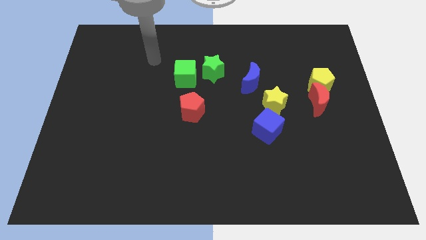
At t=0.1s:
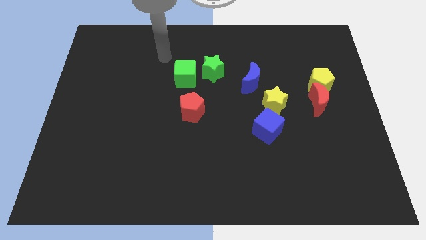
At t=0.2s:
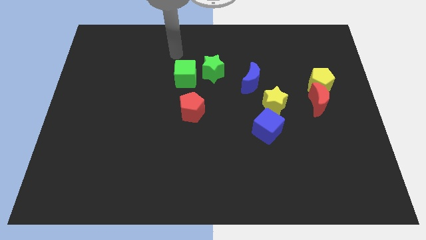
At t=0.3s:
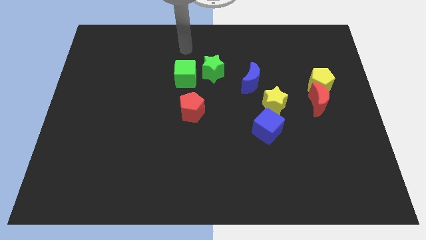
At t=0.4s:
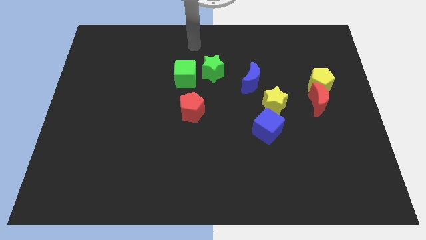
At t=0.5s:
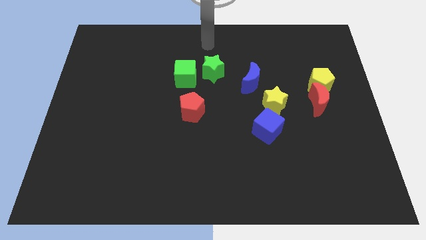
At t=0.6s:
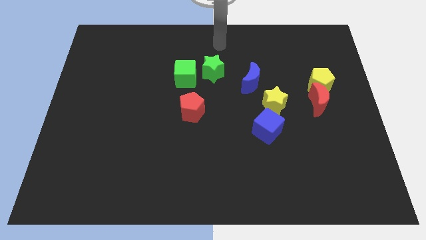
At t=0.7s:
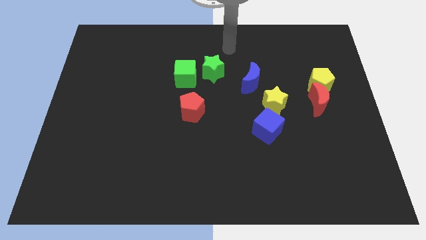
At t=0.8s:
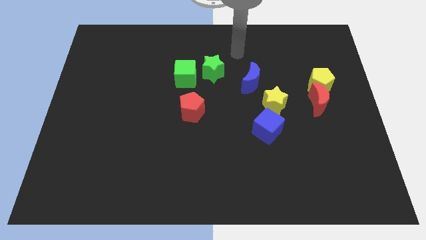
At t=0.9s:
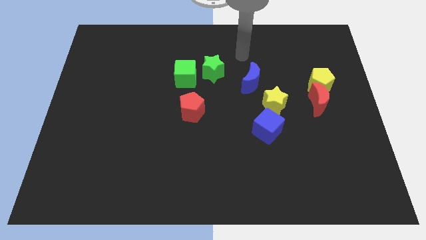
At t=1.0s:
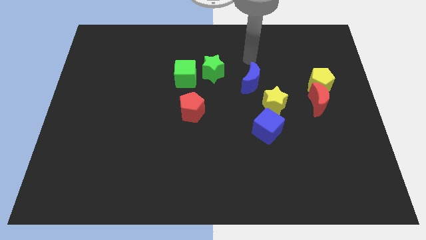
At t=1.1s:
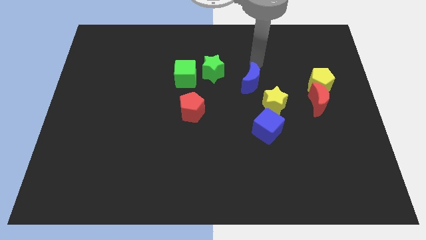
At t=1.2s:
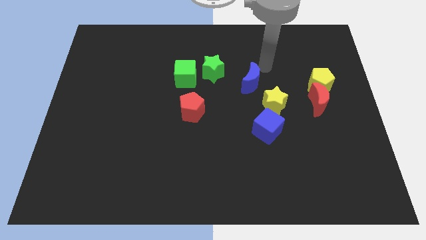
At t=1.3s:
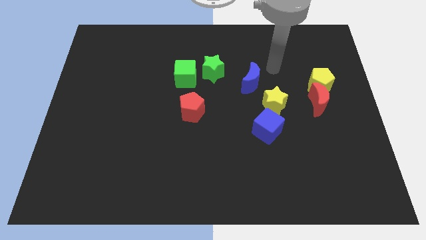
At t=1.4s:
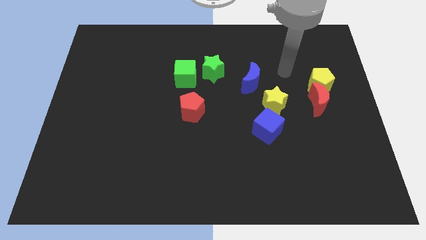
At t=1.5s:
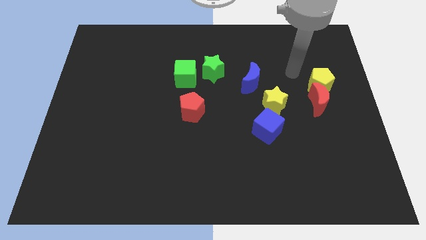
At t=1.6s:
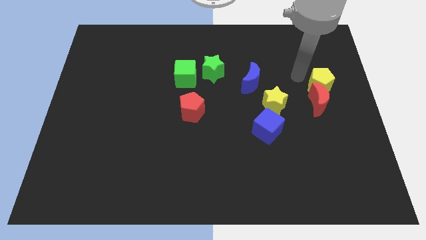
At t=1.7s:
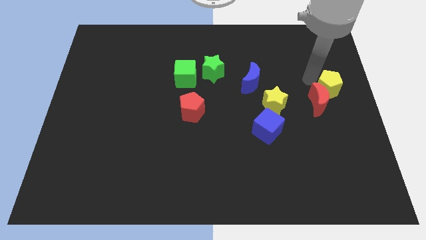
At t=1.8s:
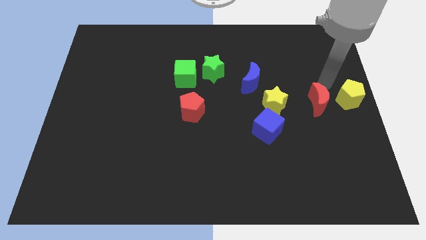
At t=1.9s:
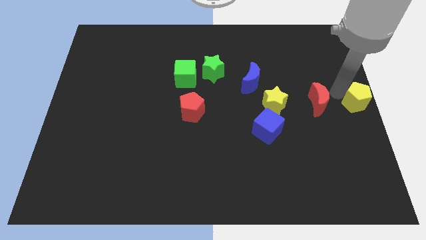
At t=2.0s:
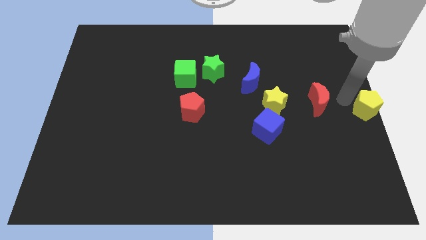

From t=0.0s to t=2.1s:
pull the red moon apart from the yellow pentagon

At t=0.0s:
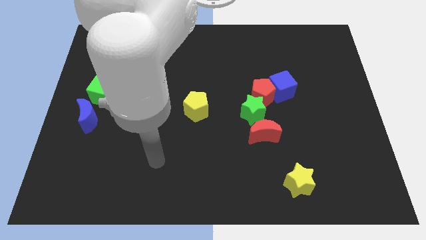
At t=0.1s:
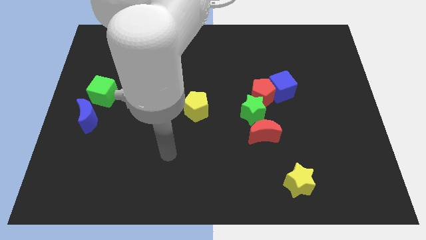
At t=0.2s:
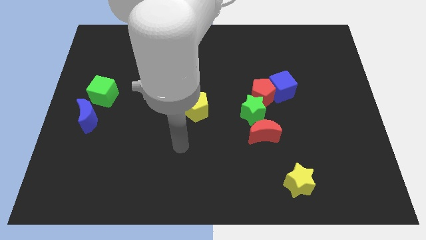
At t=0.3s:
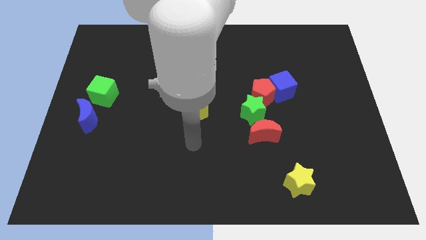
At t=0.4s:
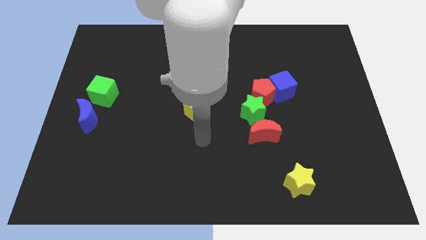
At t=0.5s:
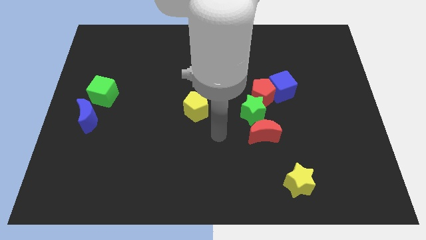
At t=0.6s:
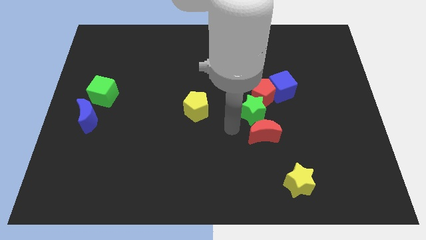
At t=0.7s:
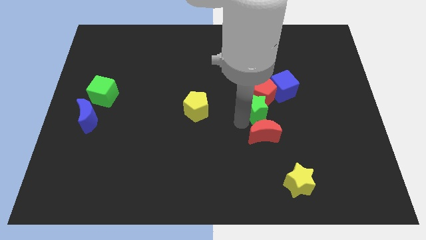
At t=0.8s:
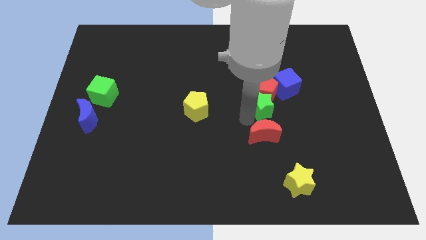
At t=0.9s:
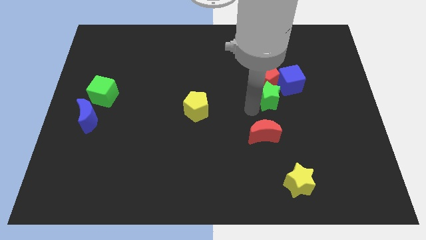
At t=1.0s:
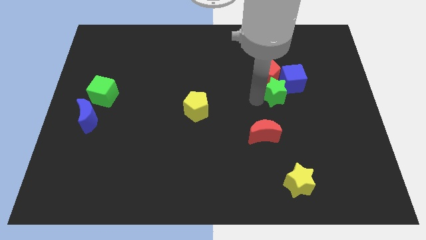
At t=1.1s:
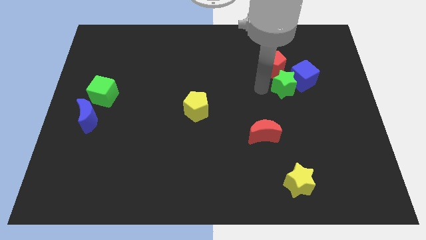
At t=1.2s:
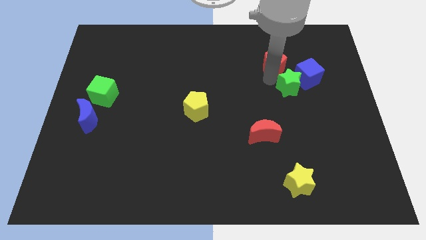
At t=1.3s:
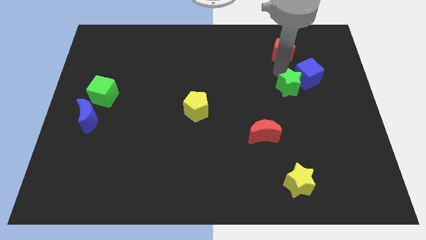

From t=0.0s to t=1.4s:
move the blue cube away from the red pentagon

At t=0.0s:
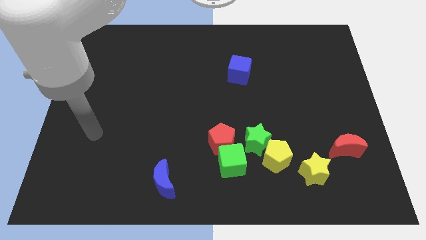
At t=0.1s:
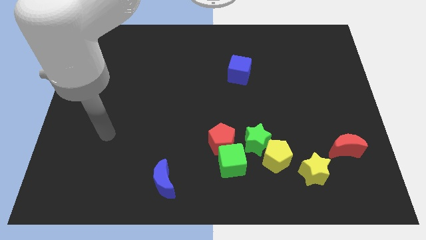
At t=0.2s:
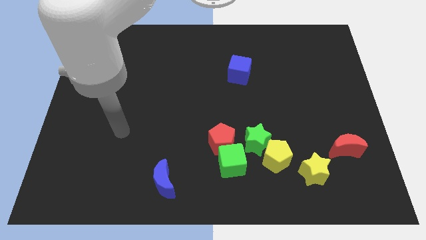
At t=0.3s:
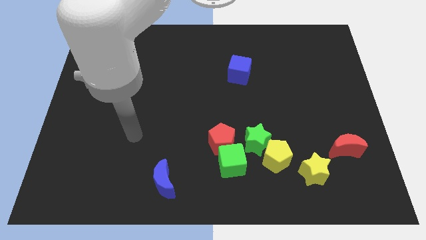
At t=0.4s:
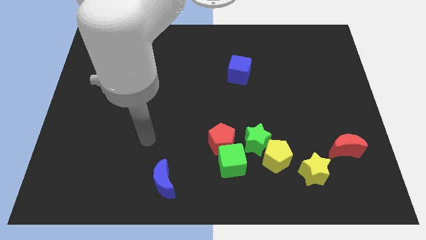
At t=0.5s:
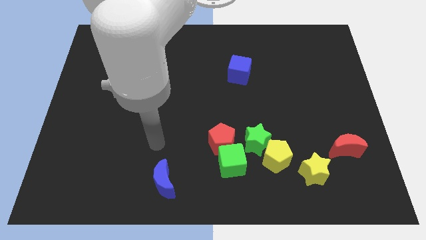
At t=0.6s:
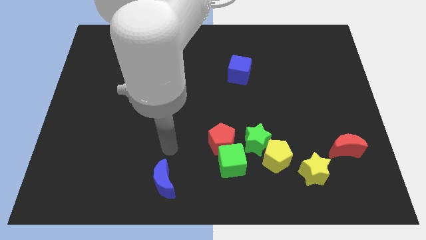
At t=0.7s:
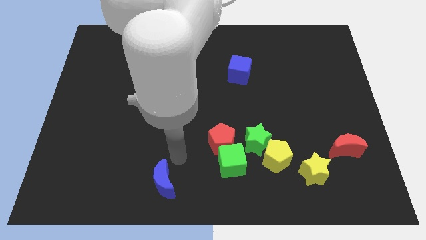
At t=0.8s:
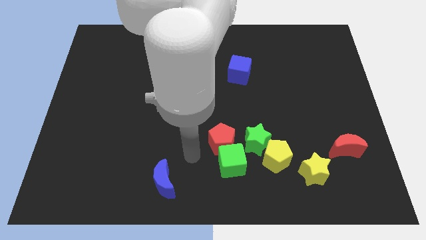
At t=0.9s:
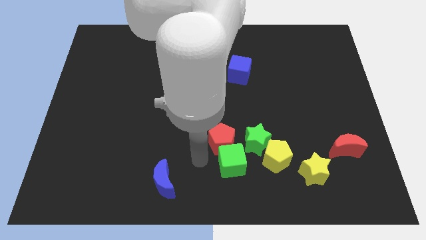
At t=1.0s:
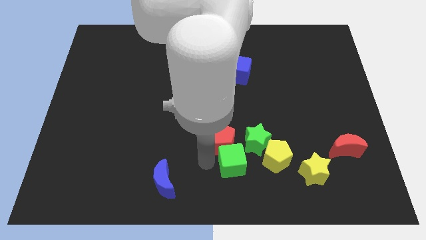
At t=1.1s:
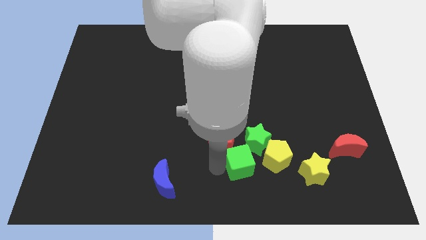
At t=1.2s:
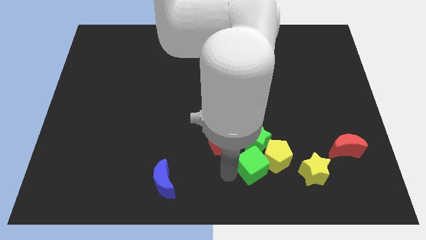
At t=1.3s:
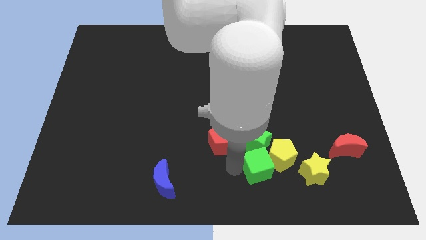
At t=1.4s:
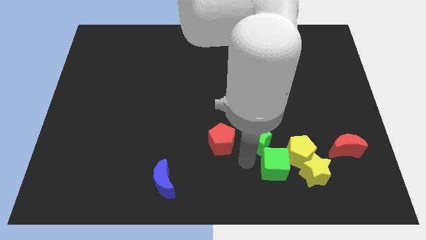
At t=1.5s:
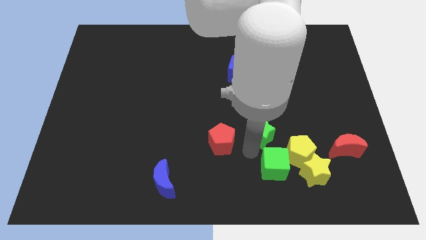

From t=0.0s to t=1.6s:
move the red pentagon away from the green cube and green star

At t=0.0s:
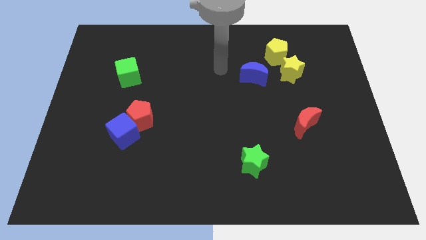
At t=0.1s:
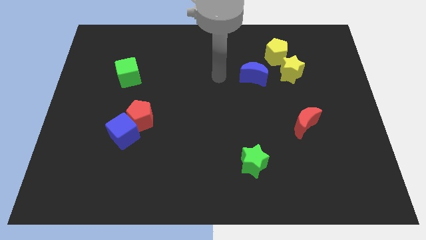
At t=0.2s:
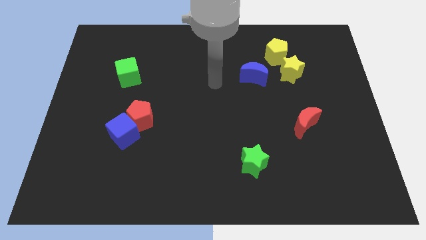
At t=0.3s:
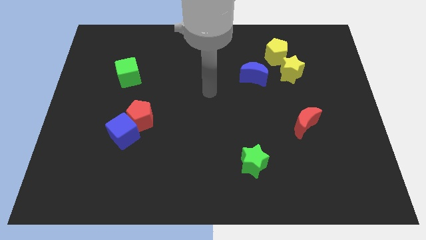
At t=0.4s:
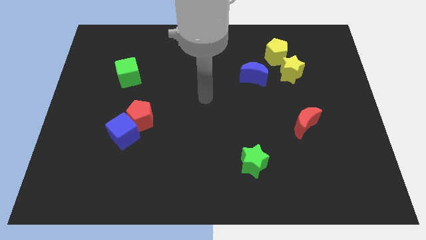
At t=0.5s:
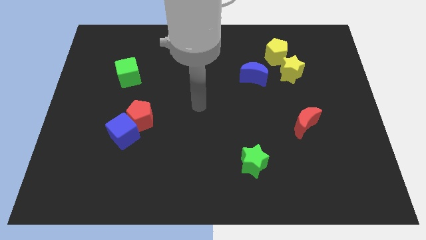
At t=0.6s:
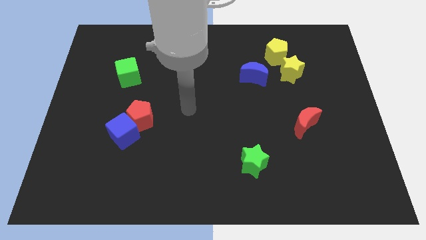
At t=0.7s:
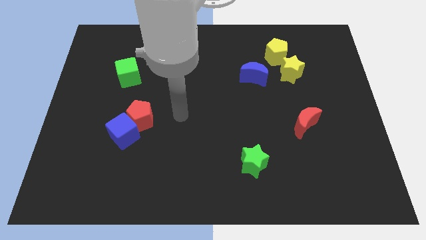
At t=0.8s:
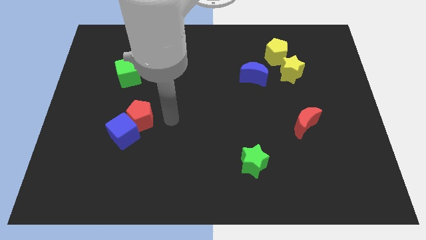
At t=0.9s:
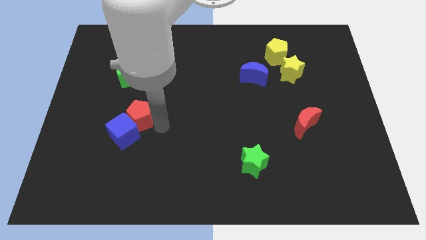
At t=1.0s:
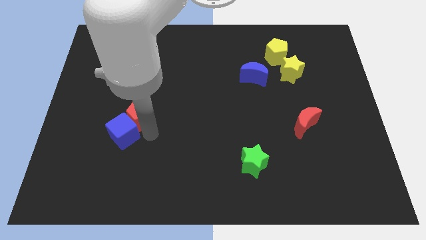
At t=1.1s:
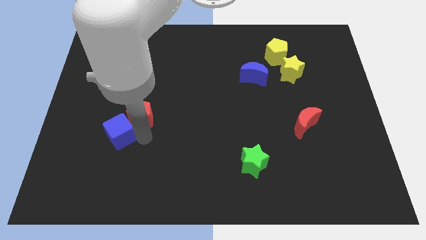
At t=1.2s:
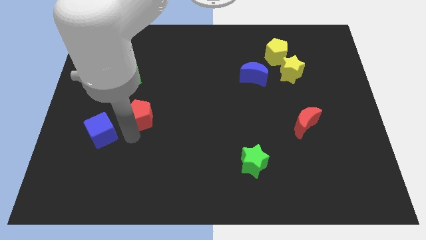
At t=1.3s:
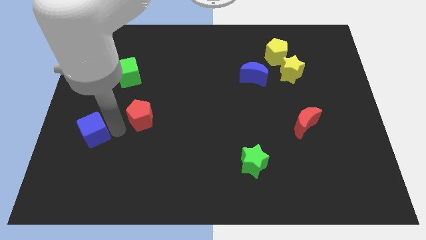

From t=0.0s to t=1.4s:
separate the red pentagon from the blue cube

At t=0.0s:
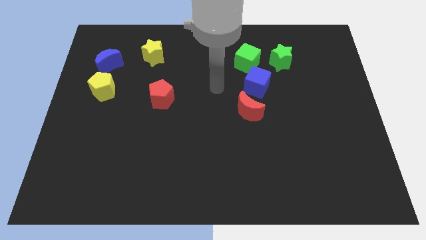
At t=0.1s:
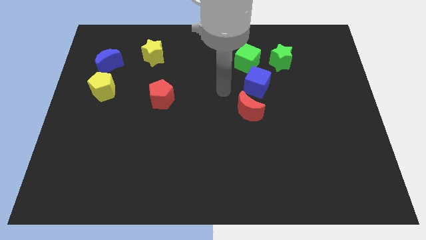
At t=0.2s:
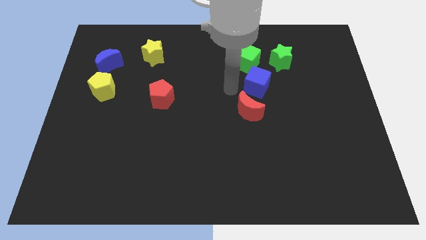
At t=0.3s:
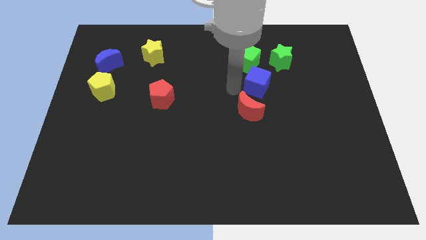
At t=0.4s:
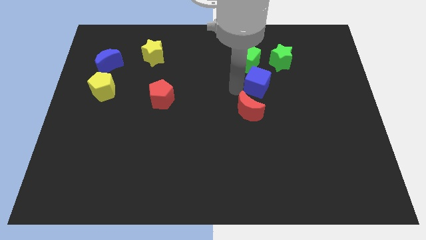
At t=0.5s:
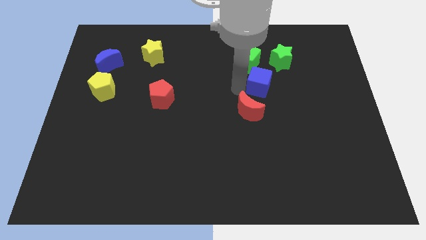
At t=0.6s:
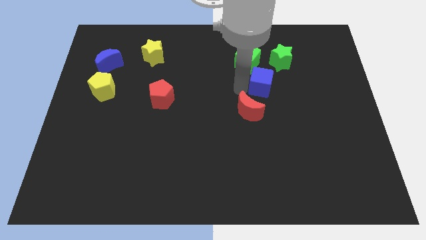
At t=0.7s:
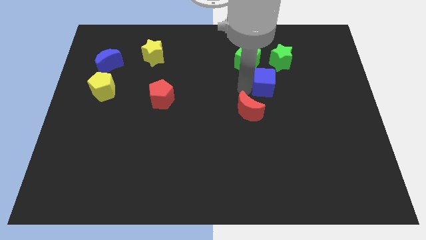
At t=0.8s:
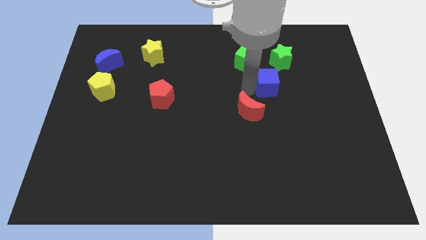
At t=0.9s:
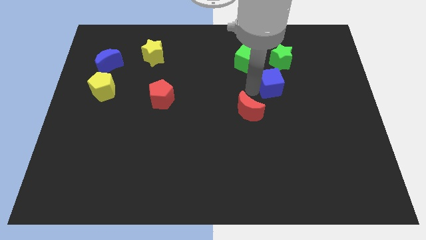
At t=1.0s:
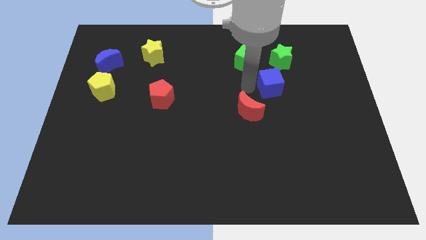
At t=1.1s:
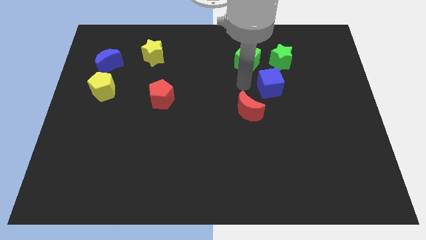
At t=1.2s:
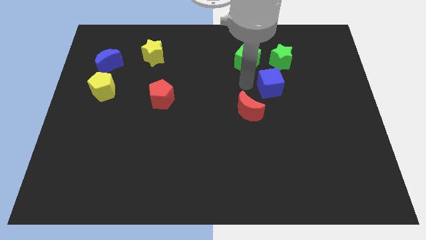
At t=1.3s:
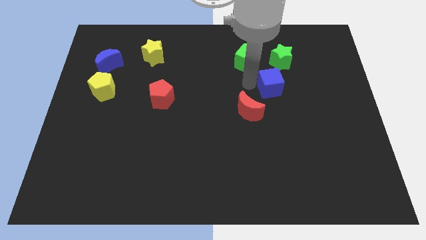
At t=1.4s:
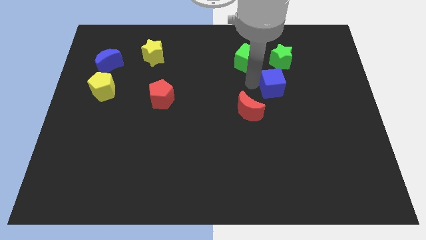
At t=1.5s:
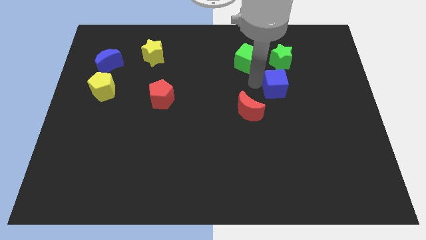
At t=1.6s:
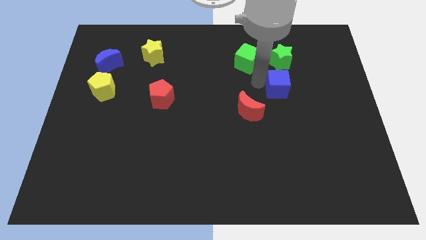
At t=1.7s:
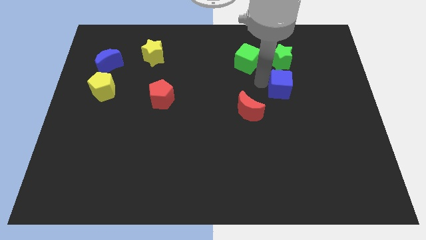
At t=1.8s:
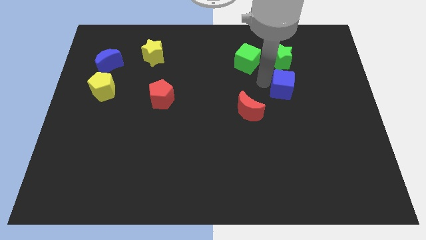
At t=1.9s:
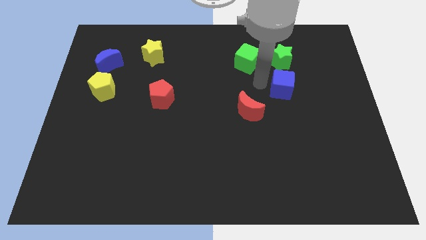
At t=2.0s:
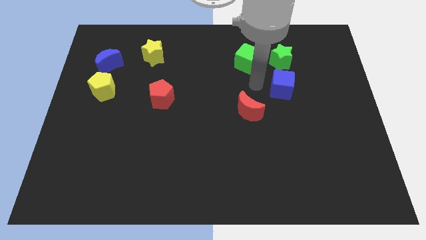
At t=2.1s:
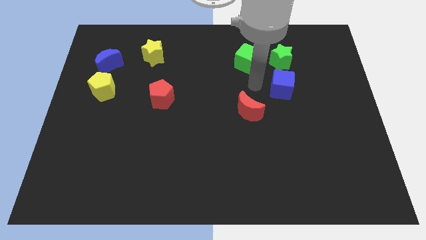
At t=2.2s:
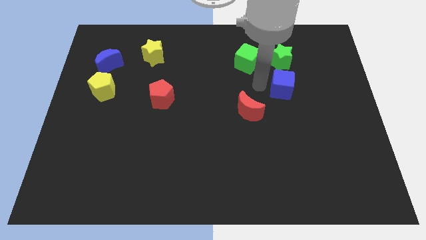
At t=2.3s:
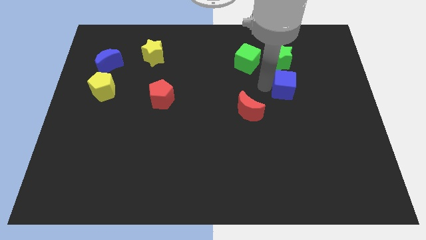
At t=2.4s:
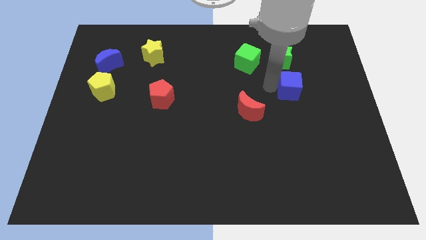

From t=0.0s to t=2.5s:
separate the blue cube from the green cube and red moon

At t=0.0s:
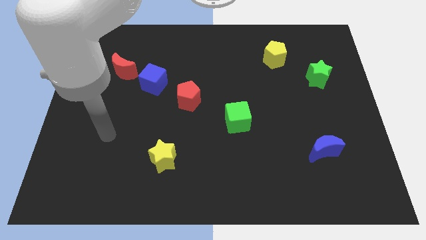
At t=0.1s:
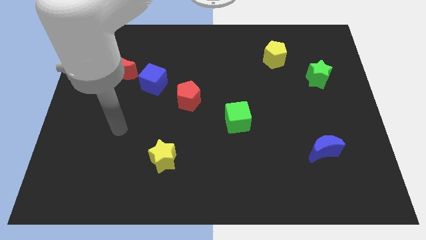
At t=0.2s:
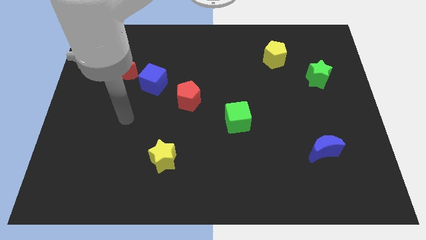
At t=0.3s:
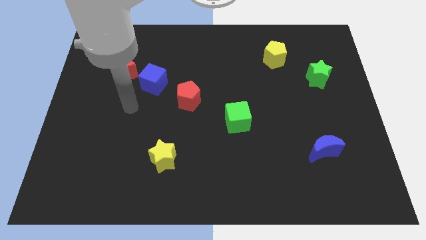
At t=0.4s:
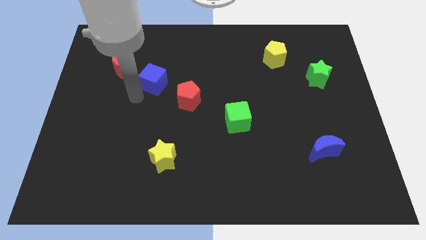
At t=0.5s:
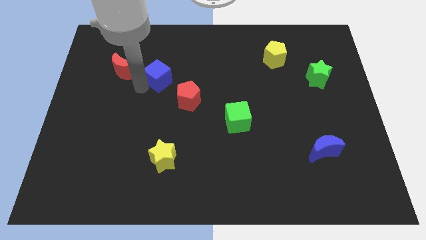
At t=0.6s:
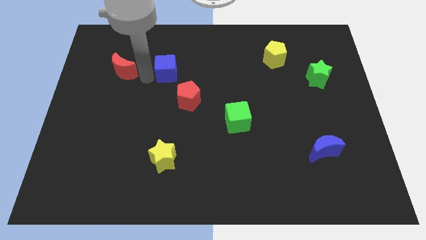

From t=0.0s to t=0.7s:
move the red moon away from the blue cube
